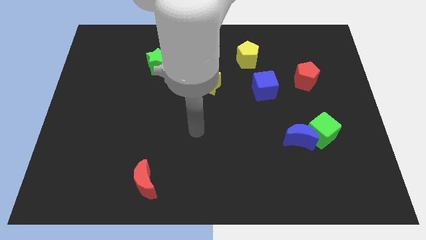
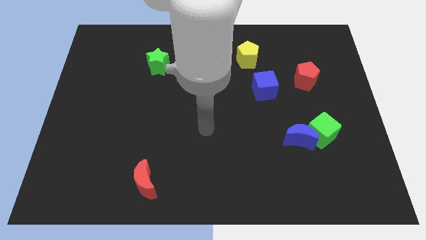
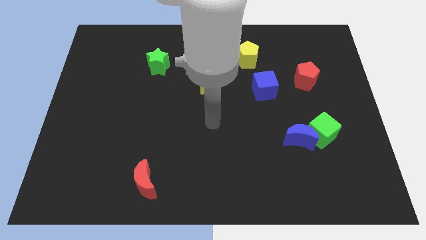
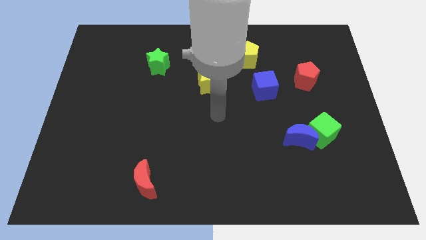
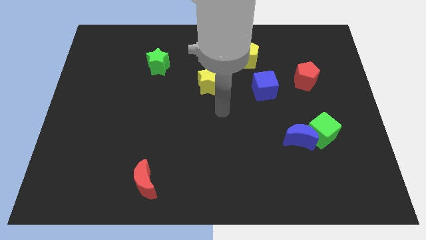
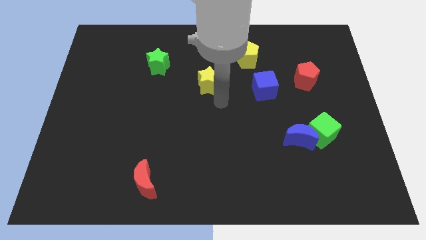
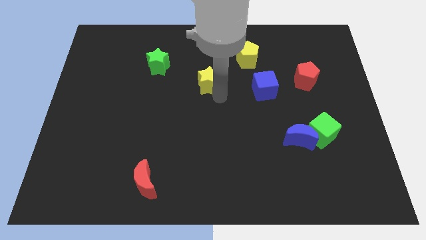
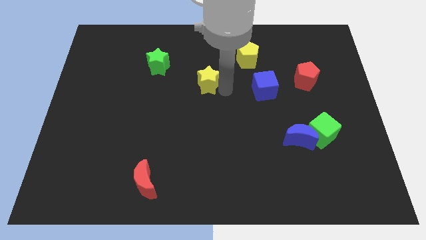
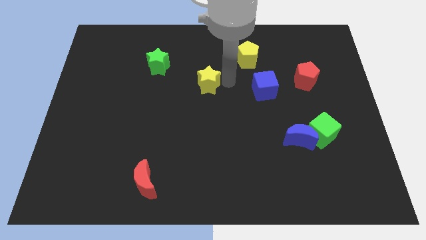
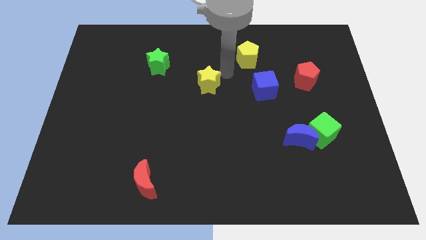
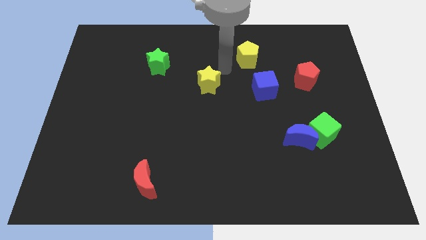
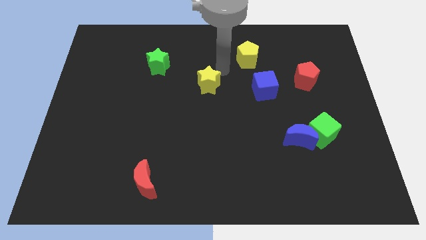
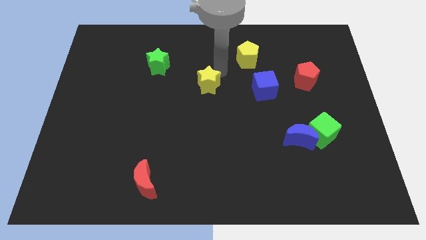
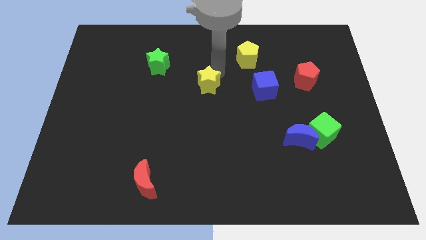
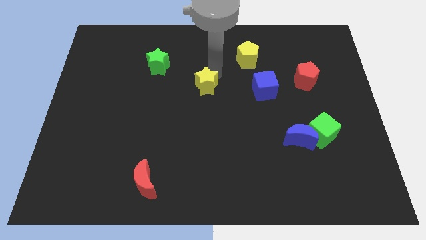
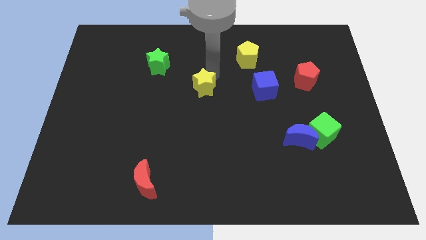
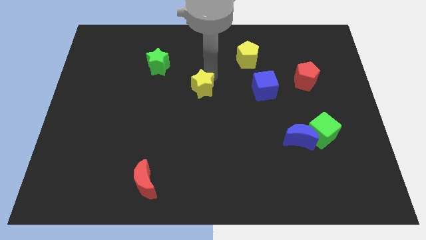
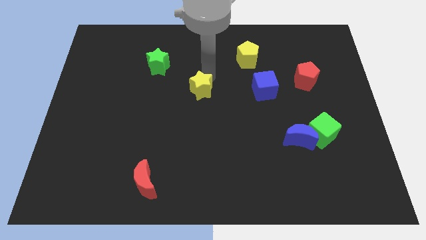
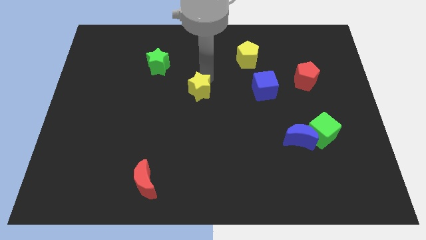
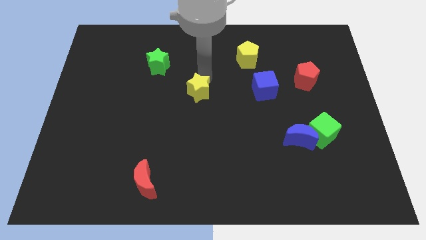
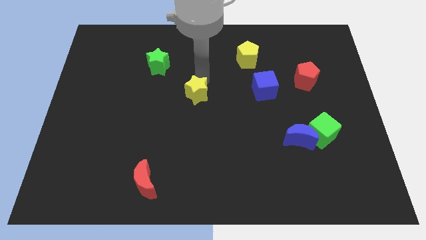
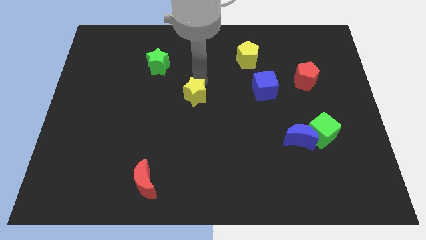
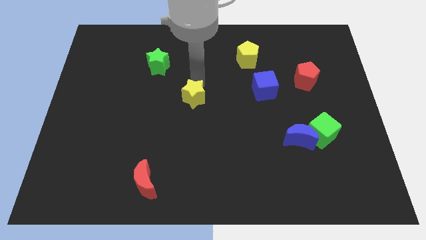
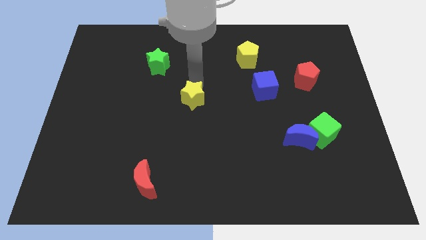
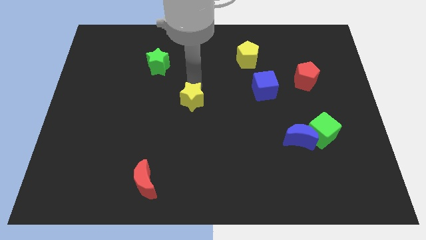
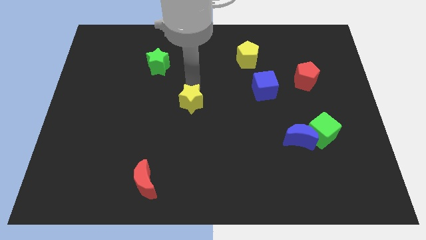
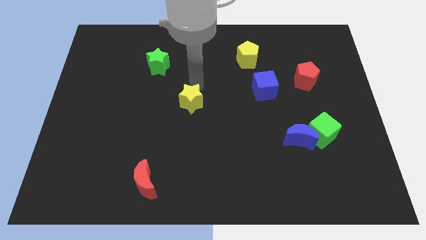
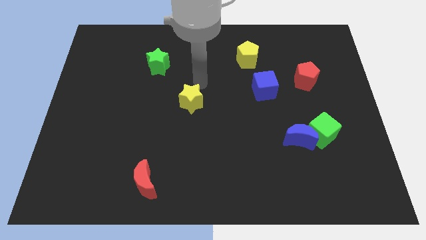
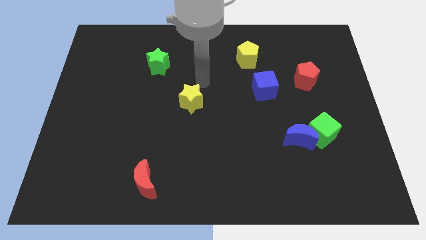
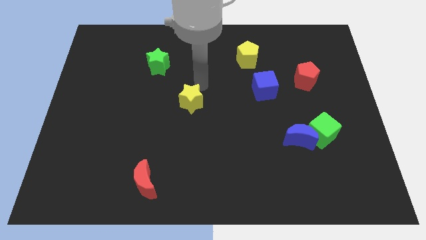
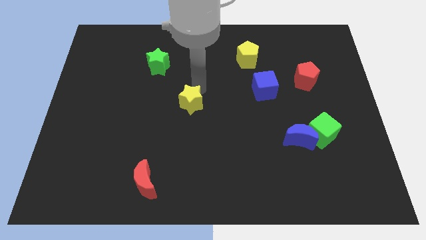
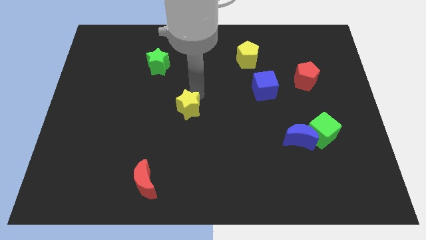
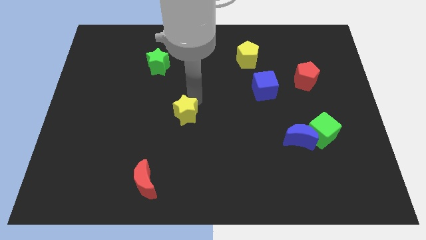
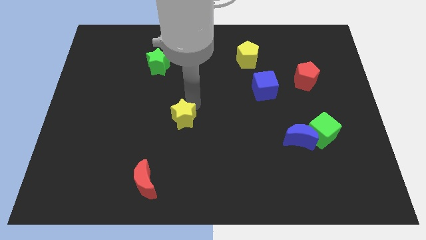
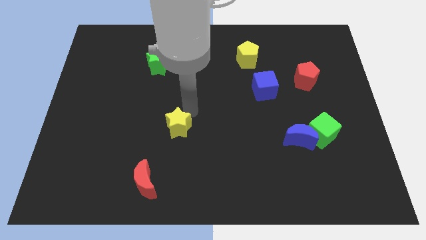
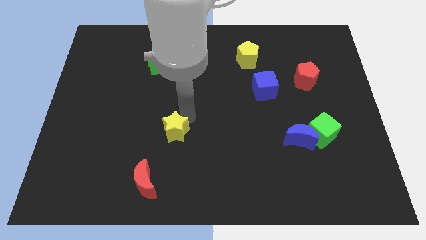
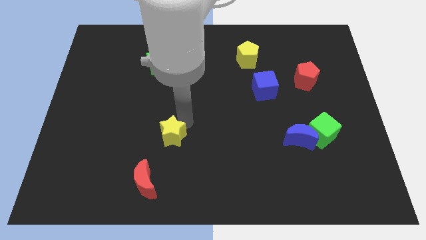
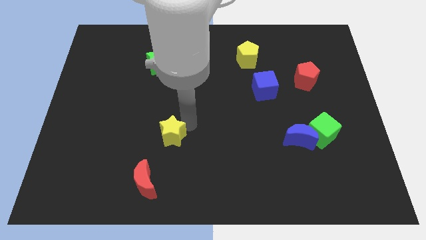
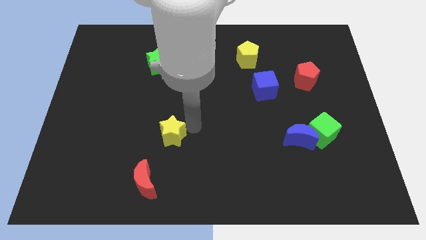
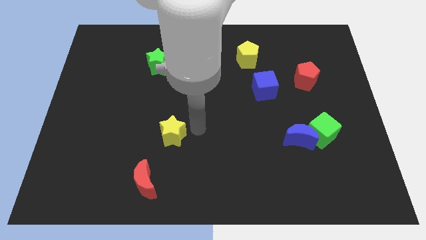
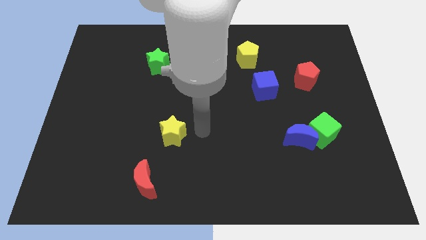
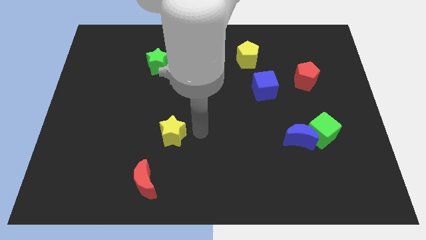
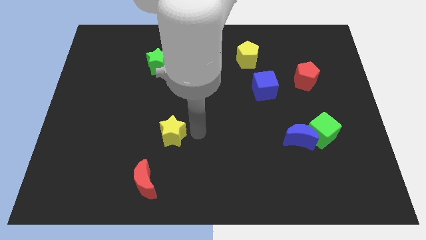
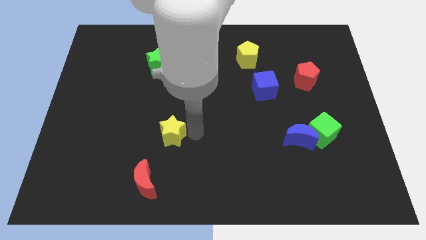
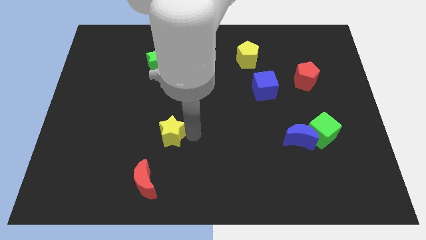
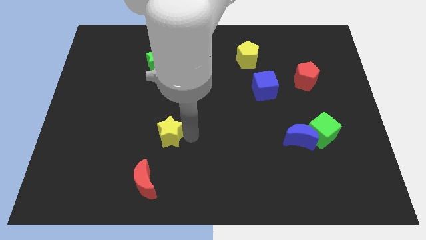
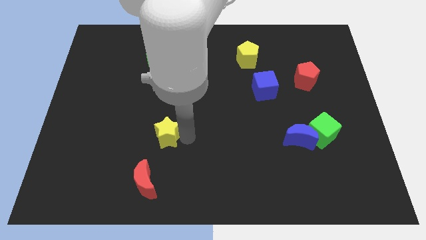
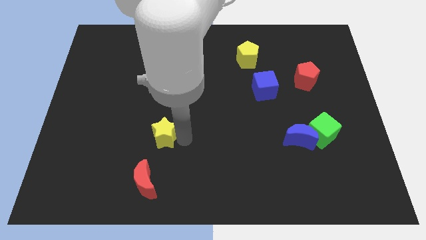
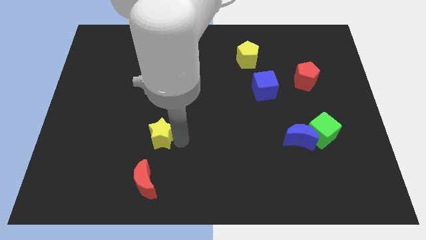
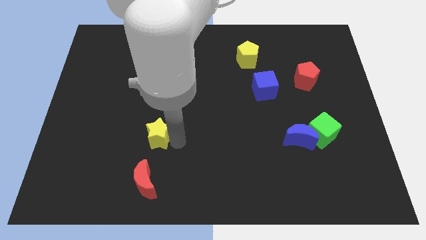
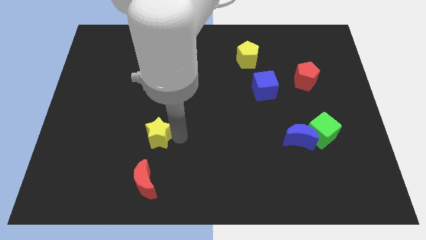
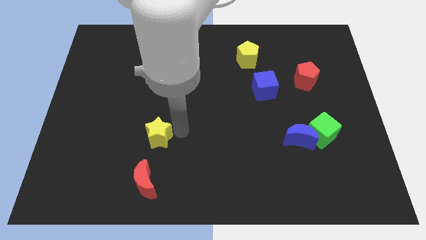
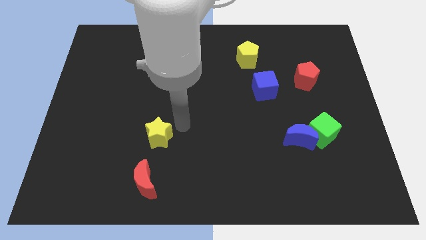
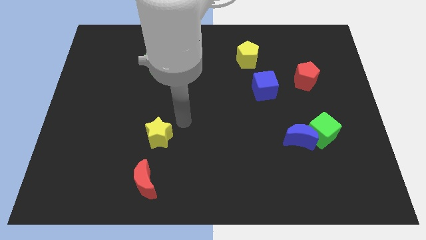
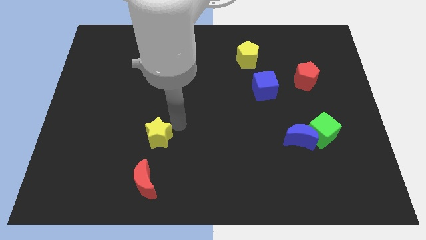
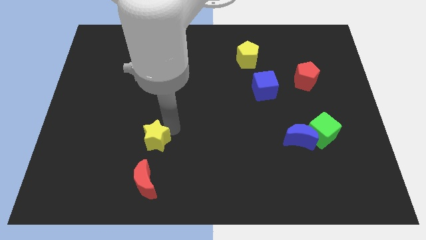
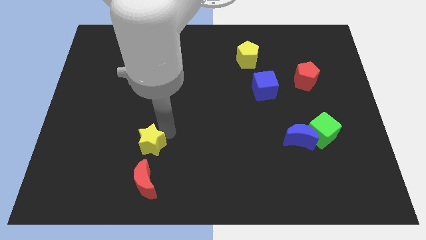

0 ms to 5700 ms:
move the yellow star downwards and left

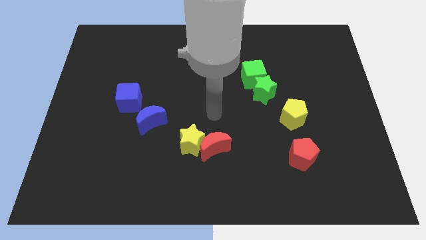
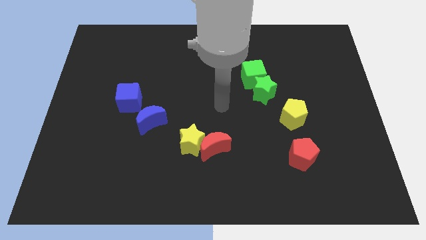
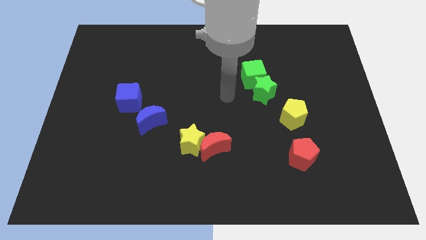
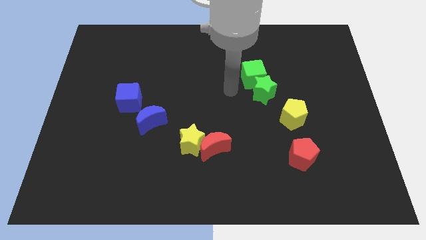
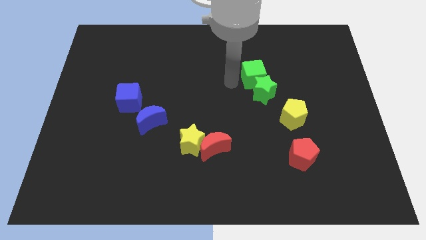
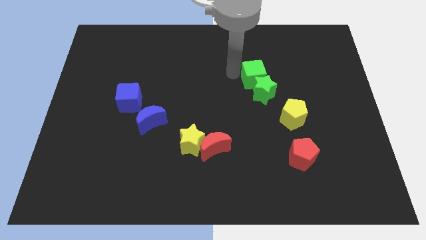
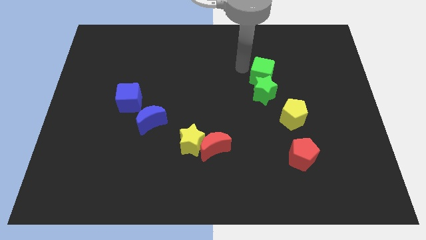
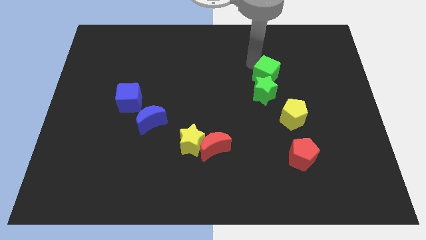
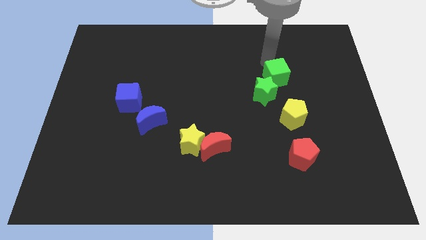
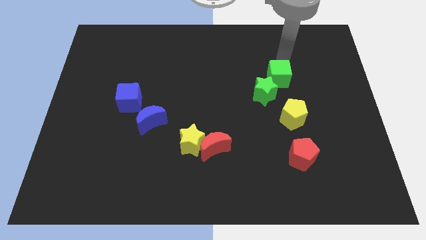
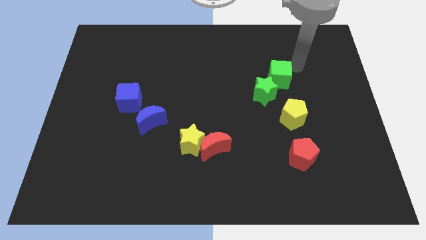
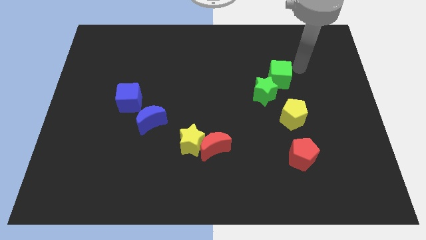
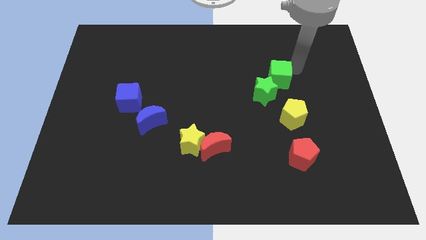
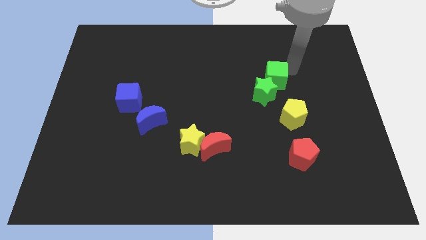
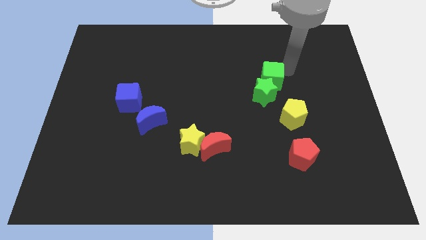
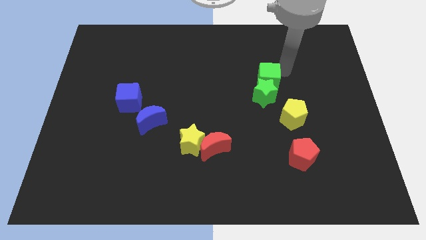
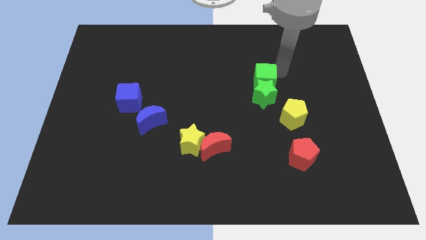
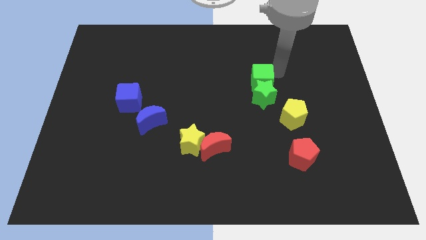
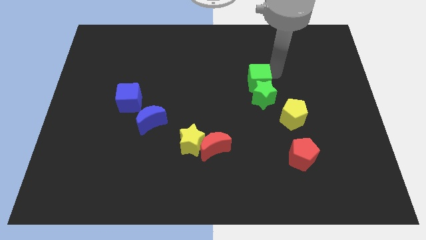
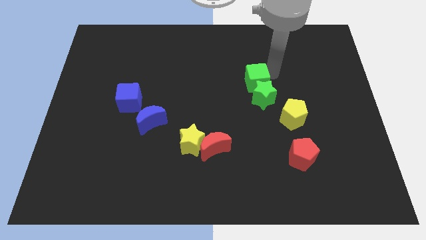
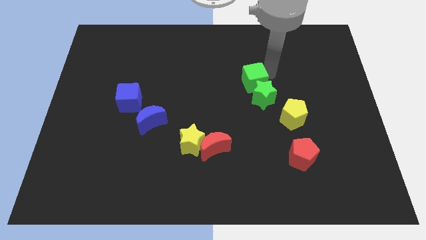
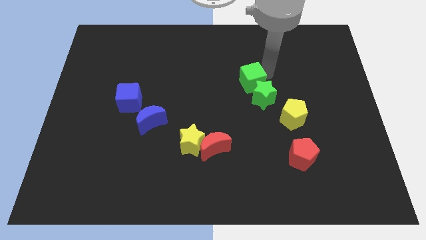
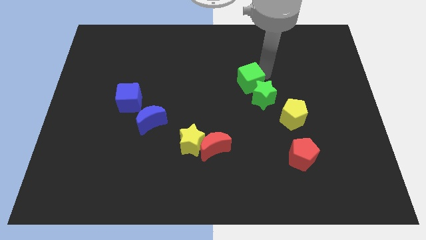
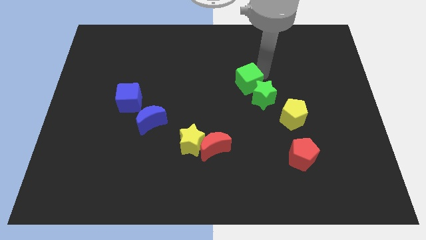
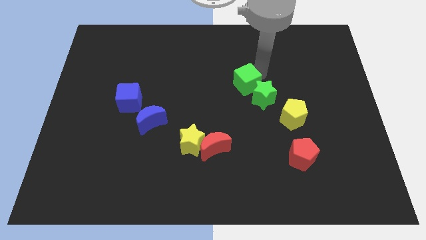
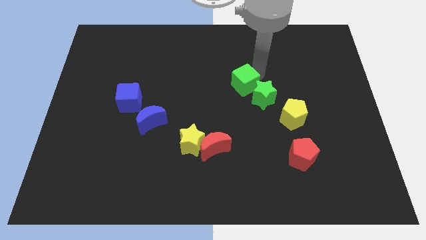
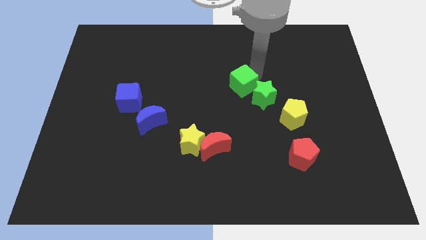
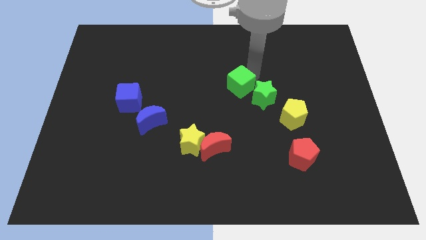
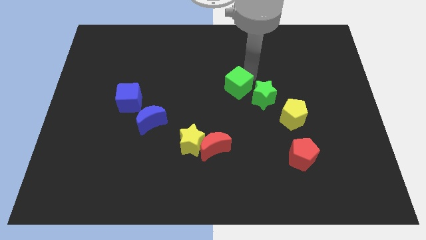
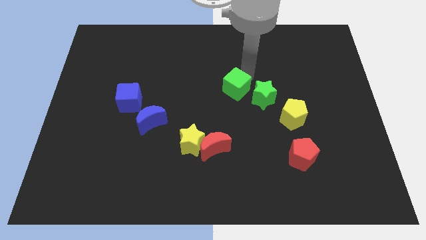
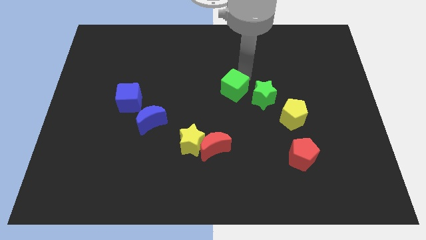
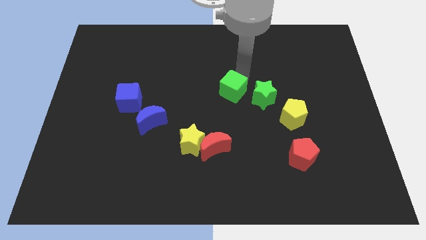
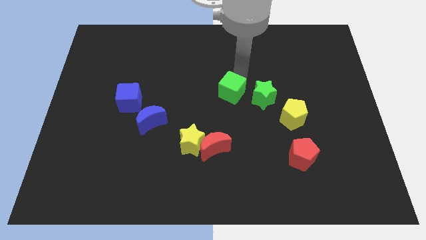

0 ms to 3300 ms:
push the green cube slightly down and to the left
